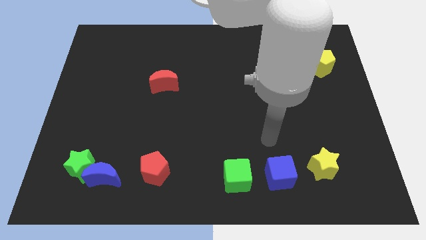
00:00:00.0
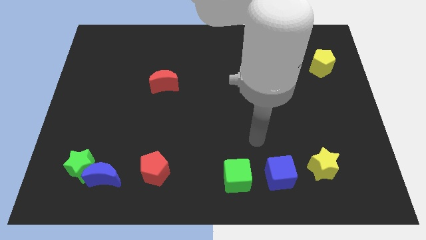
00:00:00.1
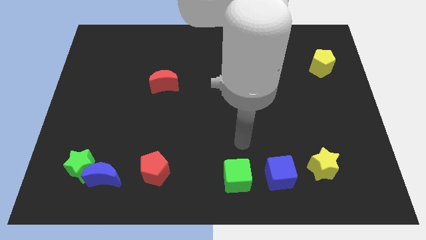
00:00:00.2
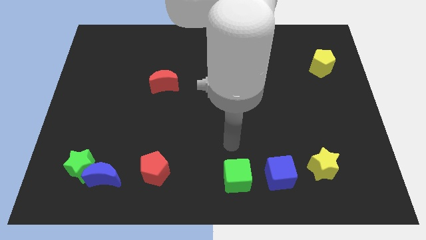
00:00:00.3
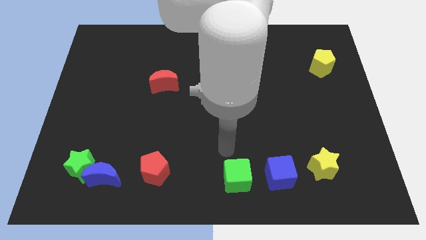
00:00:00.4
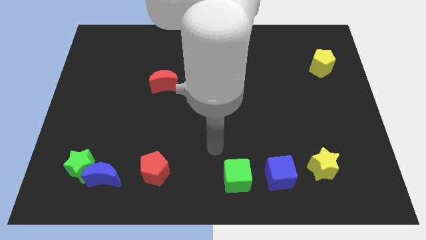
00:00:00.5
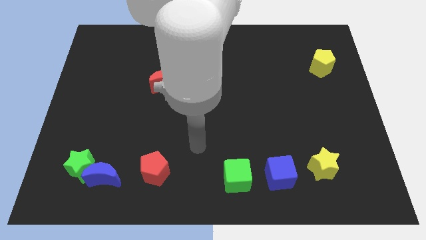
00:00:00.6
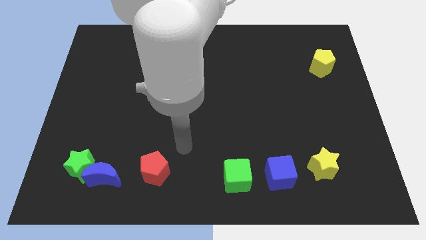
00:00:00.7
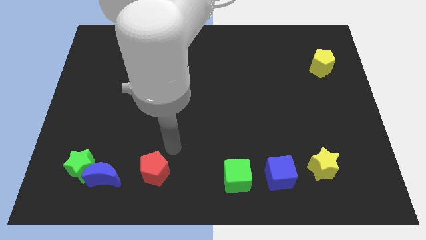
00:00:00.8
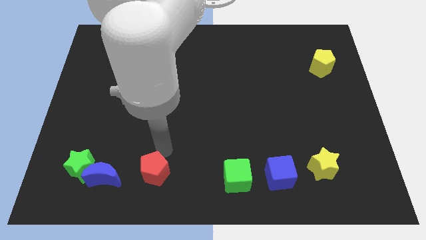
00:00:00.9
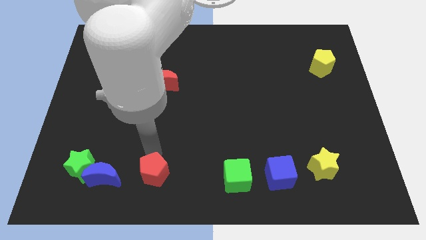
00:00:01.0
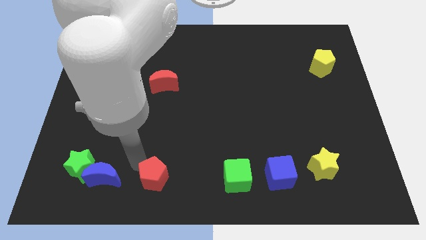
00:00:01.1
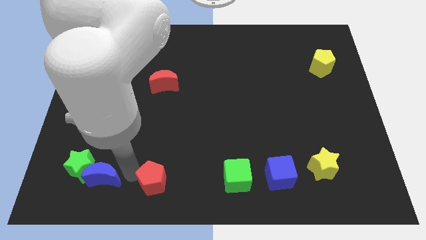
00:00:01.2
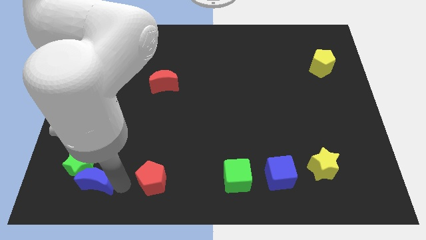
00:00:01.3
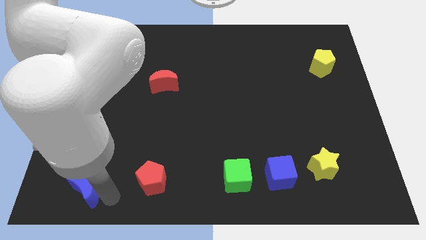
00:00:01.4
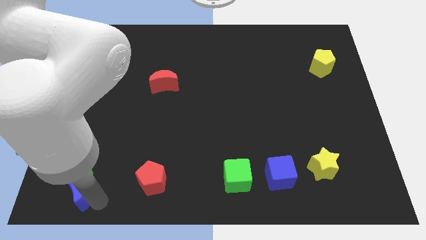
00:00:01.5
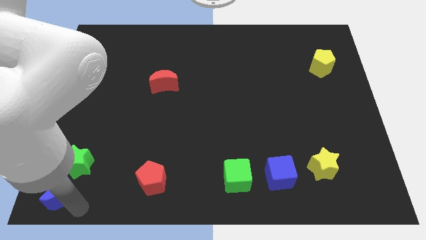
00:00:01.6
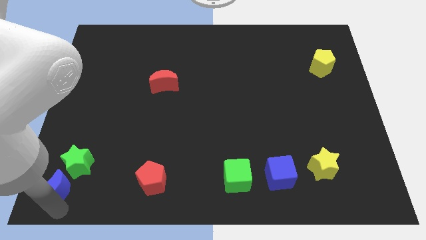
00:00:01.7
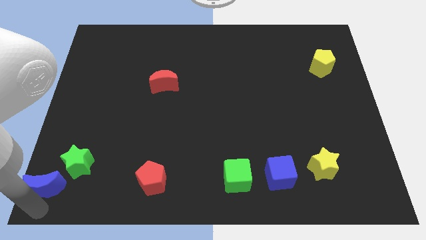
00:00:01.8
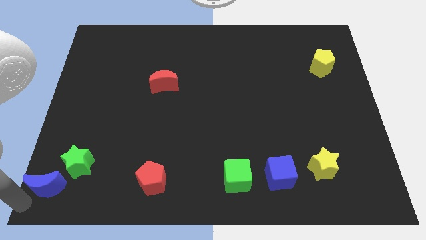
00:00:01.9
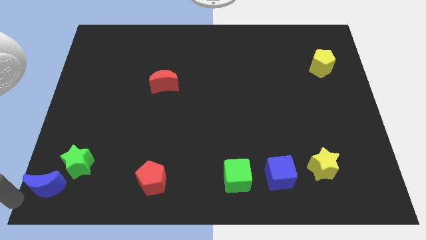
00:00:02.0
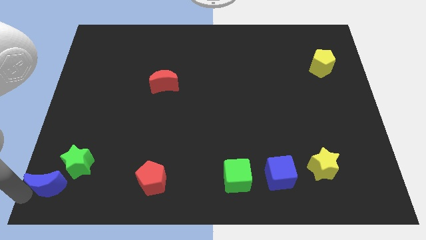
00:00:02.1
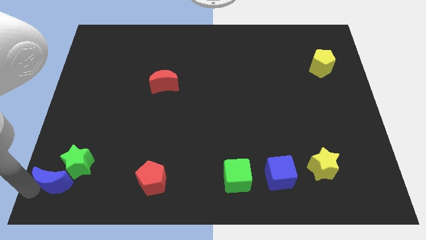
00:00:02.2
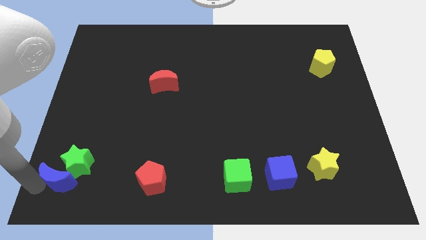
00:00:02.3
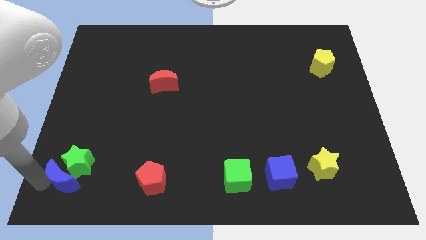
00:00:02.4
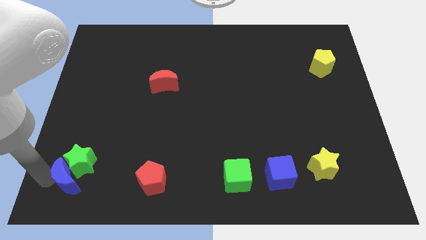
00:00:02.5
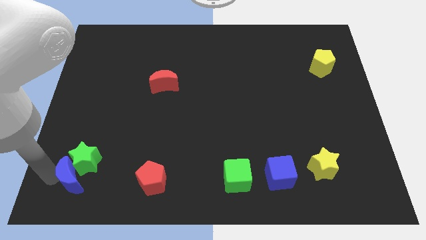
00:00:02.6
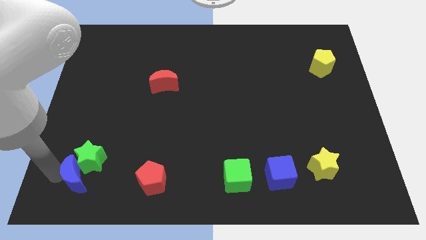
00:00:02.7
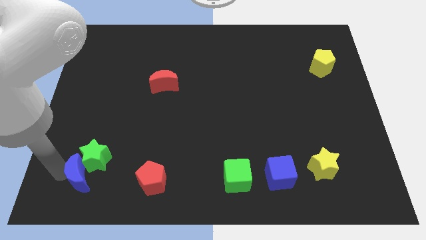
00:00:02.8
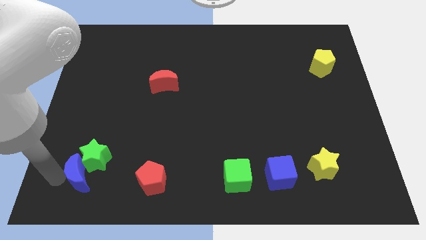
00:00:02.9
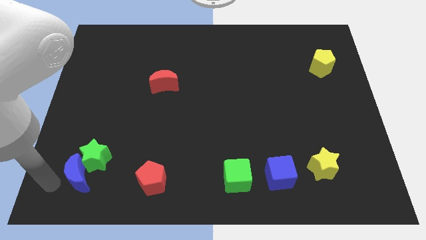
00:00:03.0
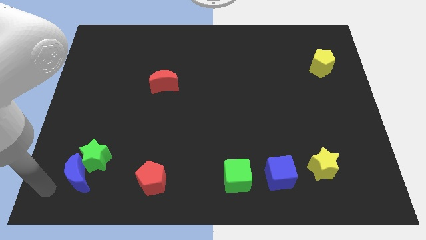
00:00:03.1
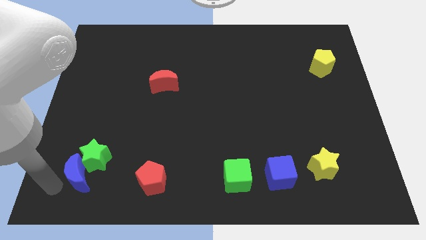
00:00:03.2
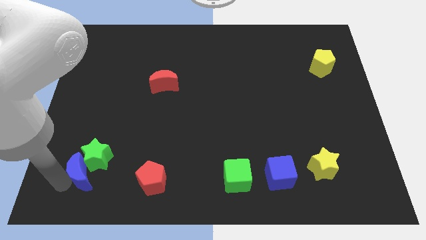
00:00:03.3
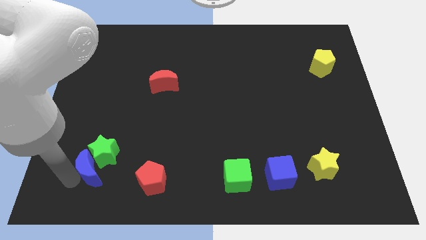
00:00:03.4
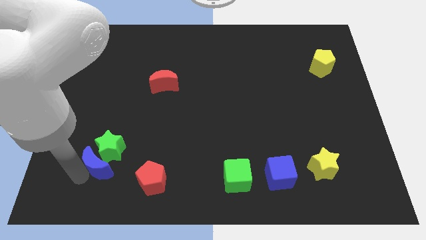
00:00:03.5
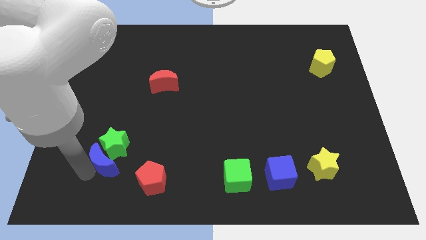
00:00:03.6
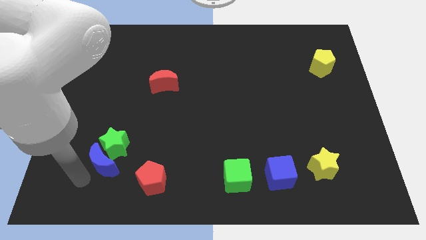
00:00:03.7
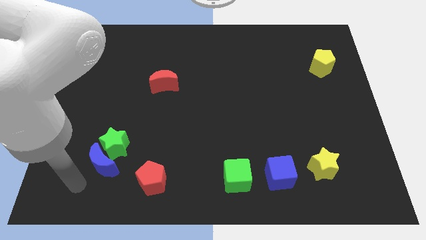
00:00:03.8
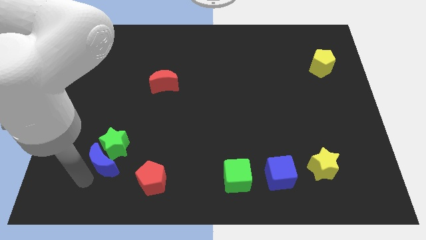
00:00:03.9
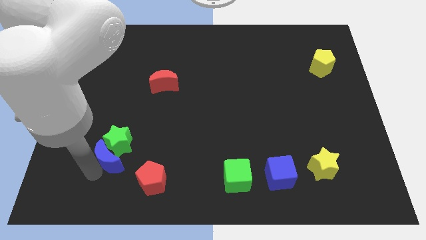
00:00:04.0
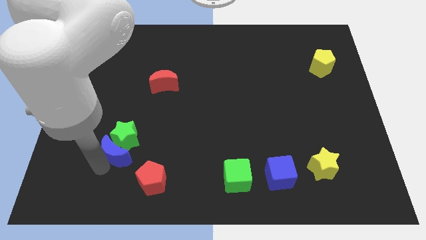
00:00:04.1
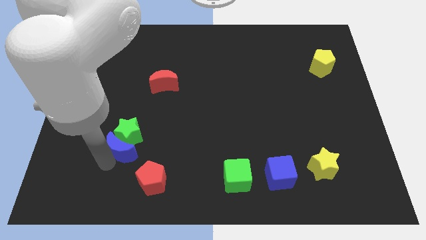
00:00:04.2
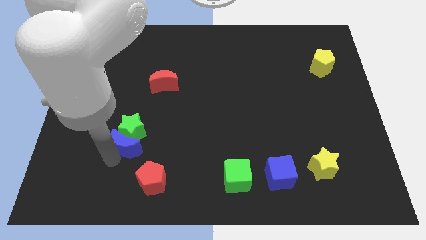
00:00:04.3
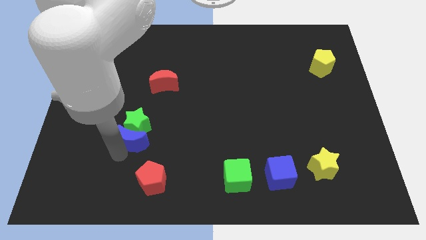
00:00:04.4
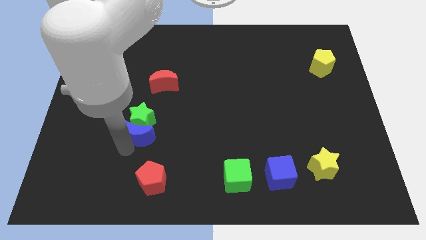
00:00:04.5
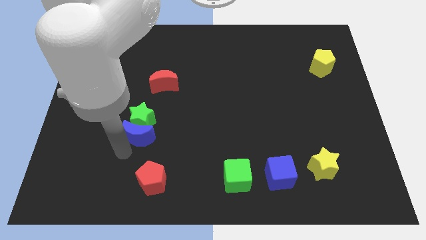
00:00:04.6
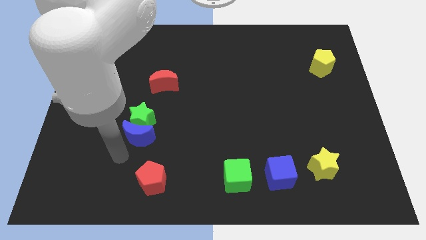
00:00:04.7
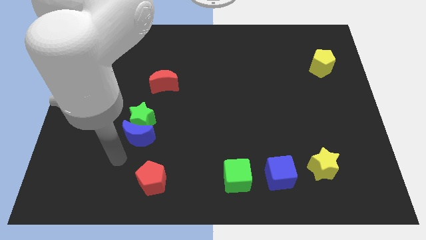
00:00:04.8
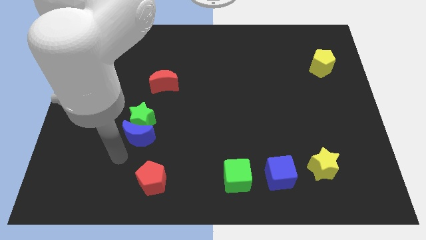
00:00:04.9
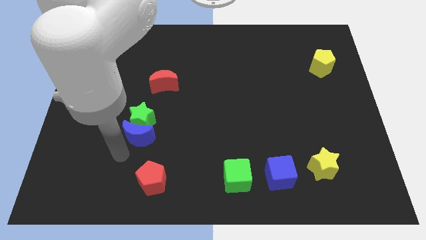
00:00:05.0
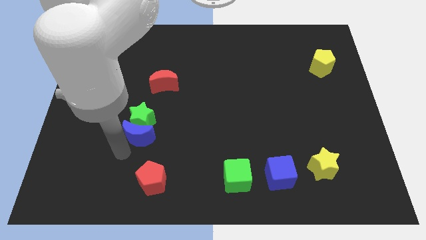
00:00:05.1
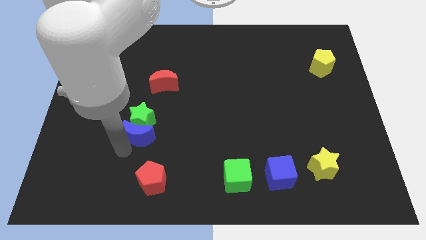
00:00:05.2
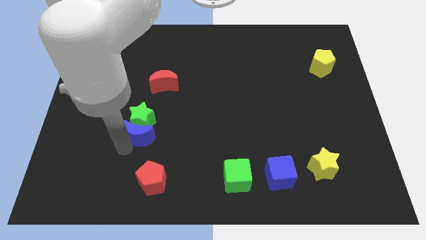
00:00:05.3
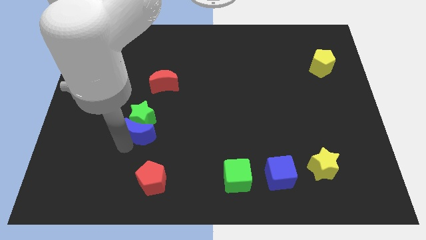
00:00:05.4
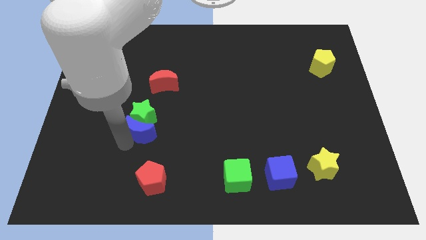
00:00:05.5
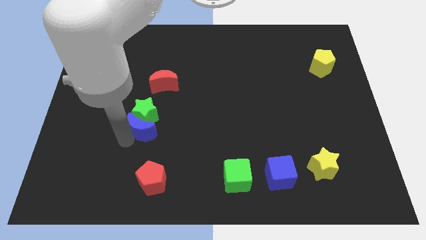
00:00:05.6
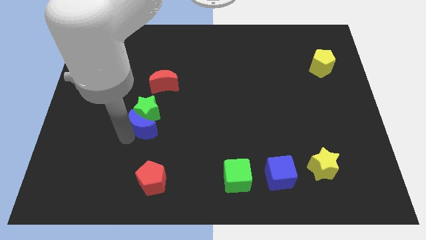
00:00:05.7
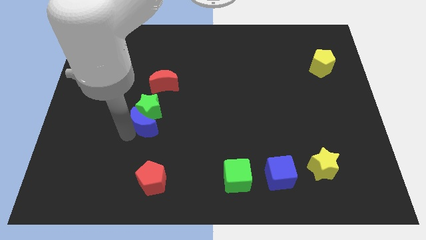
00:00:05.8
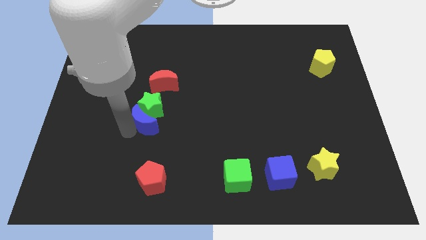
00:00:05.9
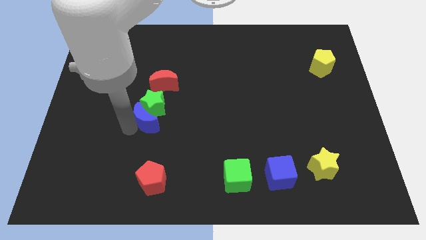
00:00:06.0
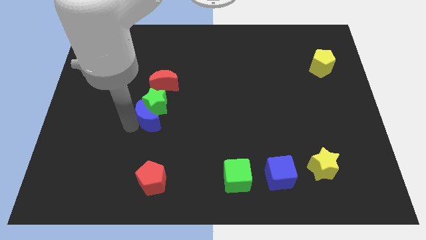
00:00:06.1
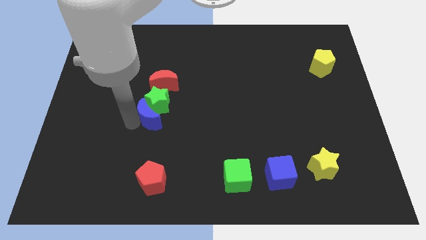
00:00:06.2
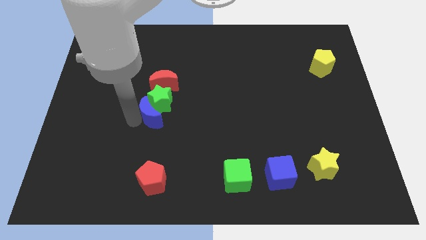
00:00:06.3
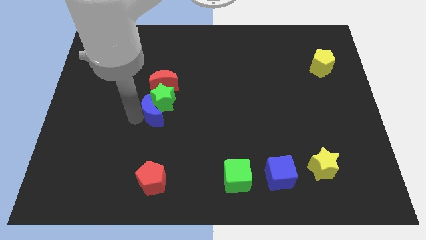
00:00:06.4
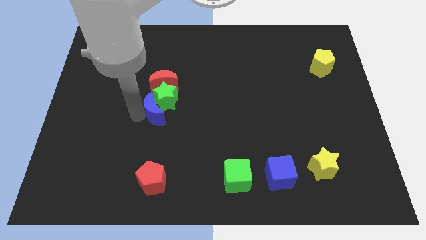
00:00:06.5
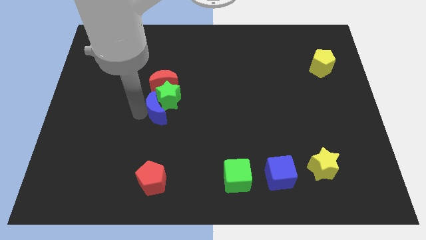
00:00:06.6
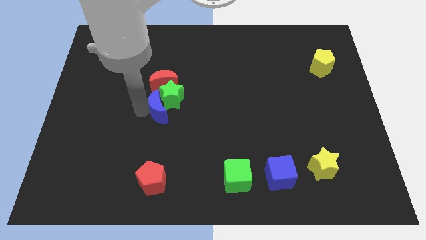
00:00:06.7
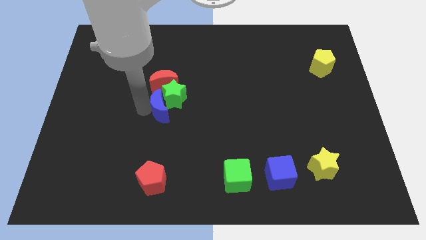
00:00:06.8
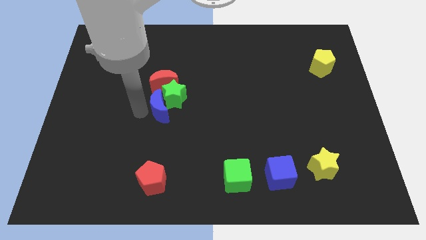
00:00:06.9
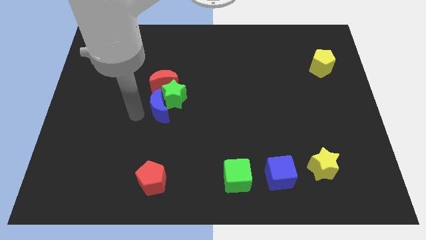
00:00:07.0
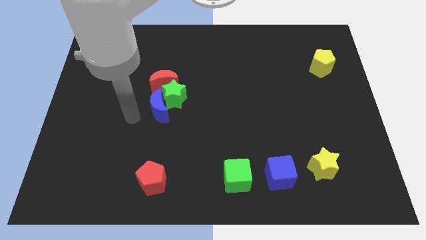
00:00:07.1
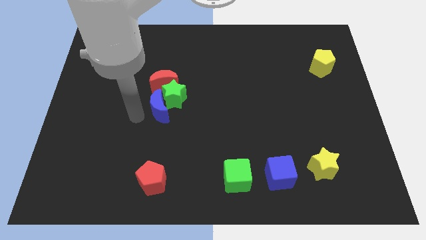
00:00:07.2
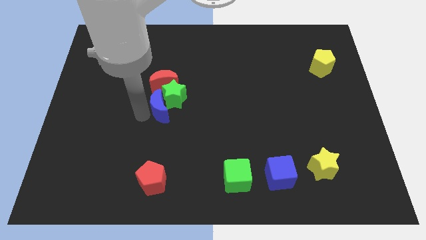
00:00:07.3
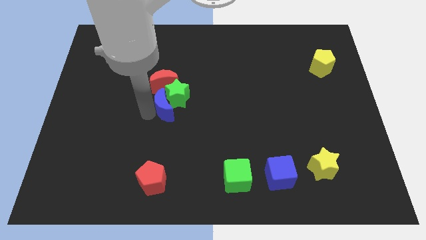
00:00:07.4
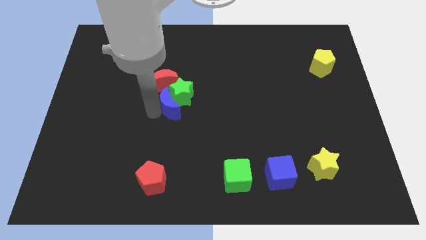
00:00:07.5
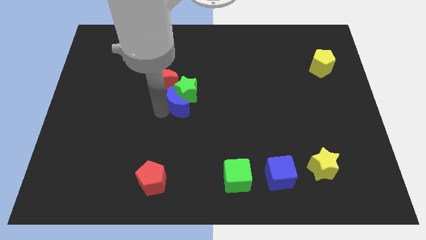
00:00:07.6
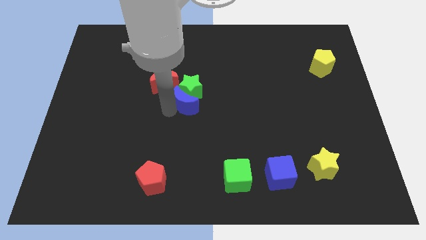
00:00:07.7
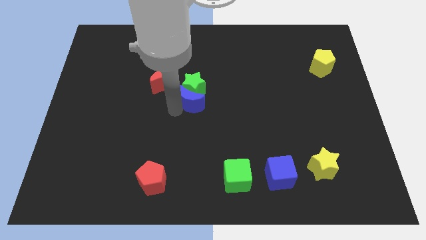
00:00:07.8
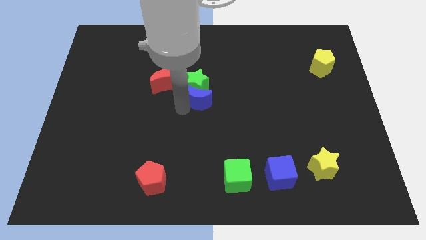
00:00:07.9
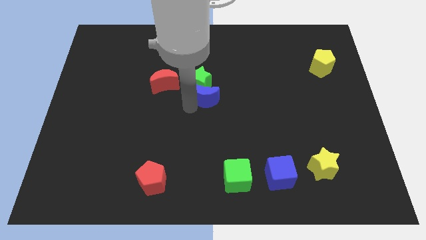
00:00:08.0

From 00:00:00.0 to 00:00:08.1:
move the blue moon right of the red moon
